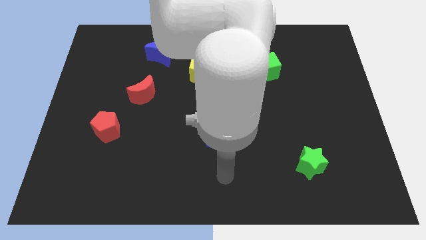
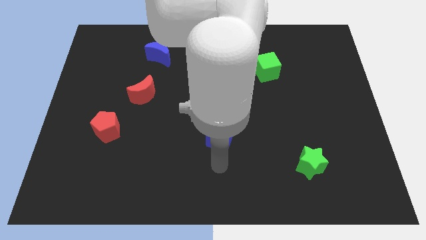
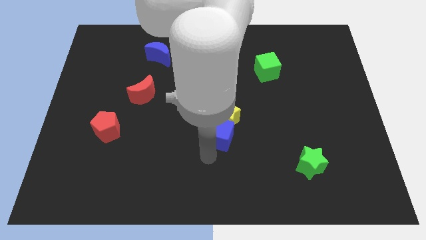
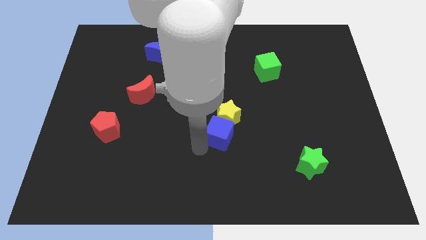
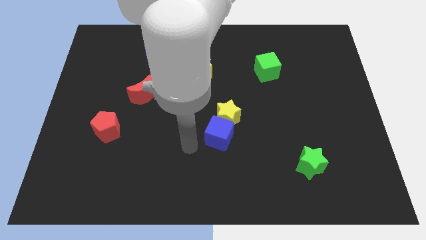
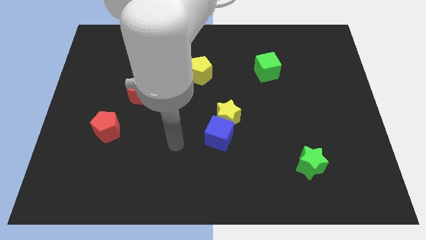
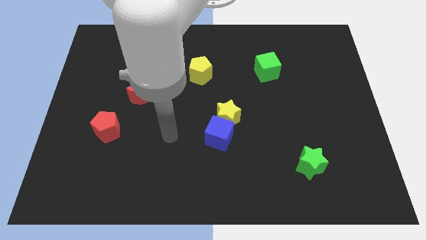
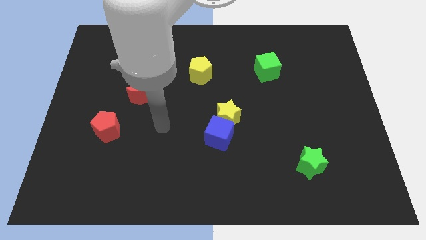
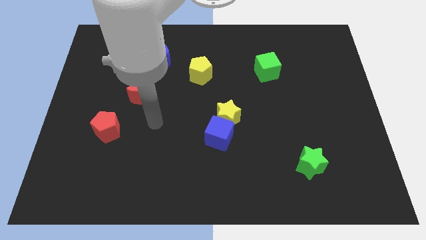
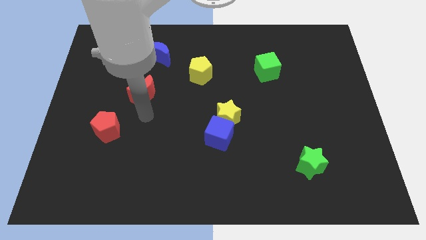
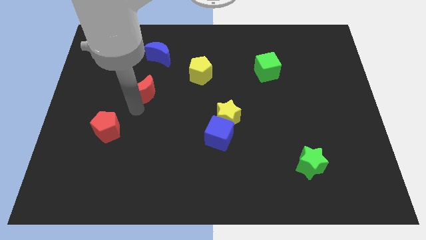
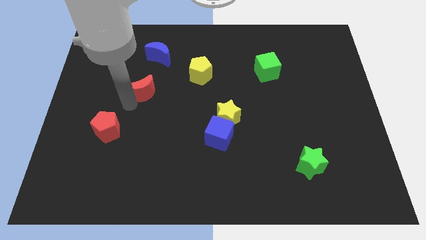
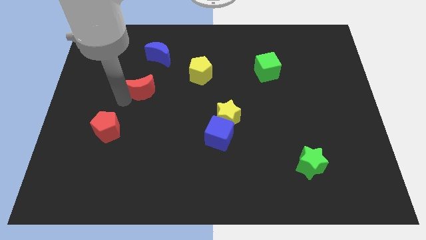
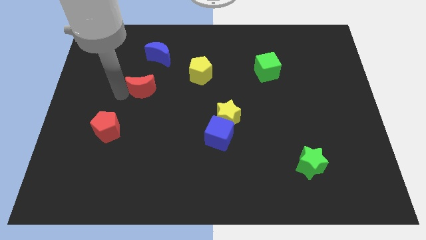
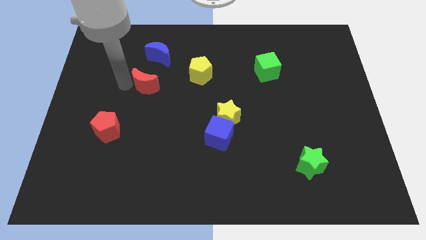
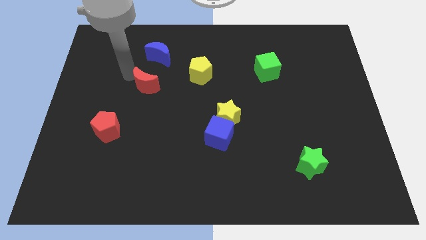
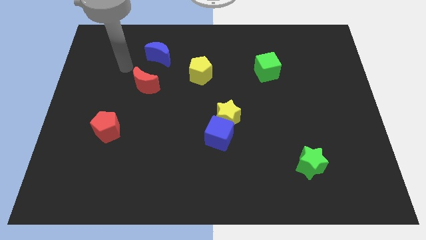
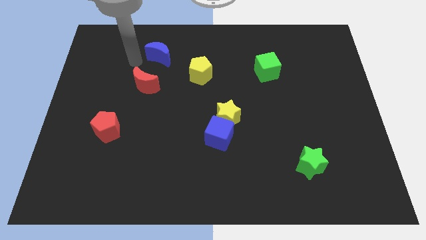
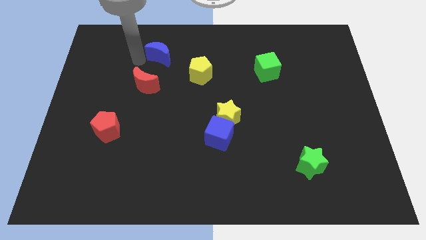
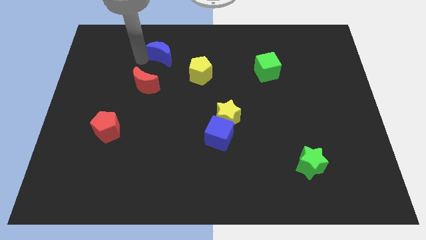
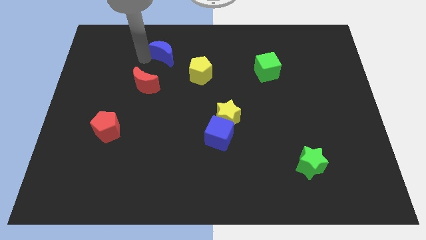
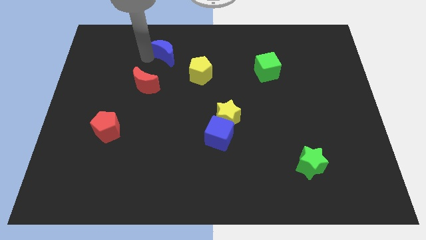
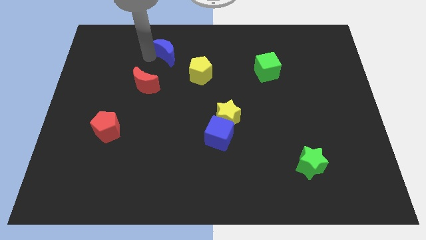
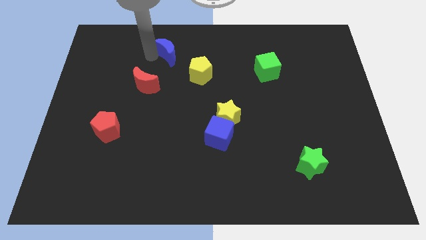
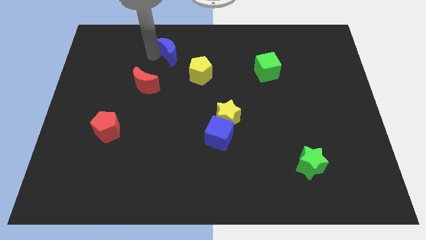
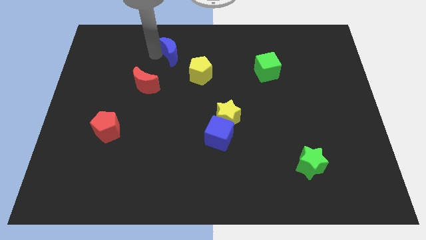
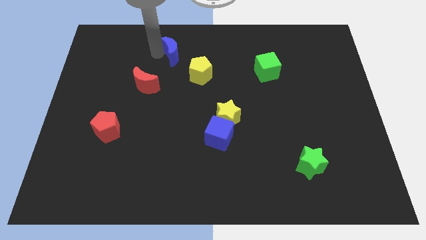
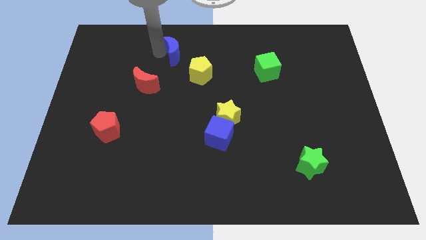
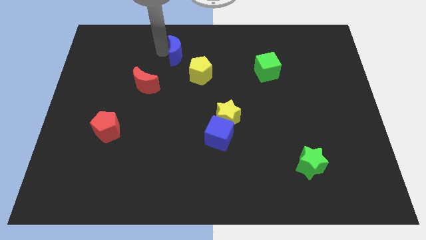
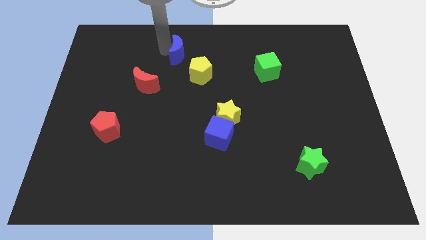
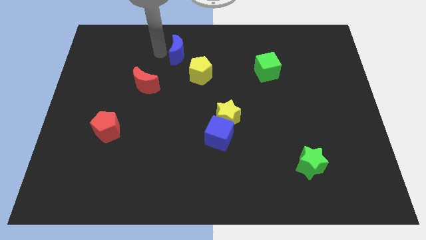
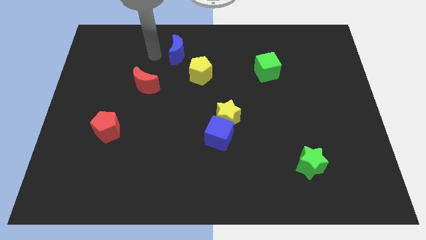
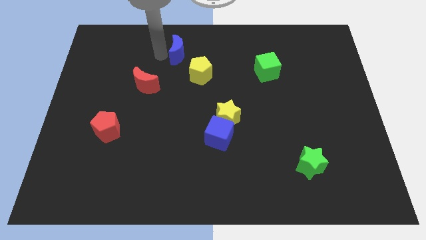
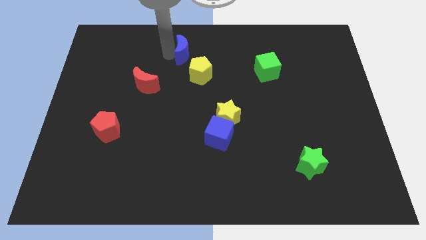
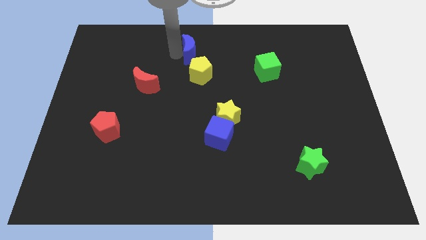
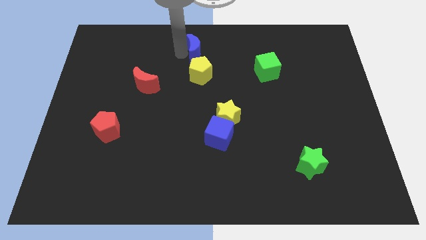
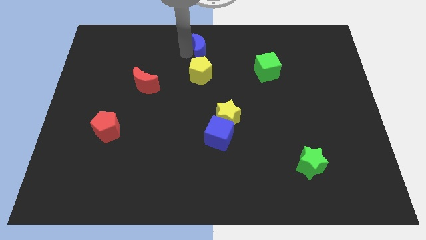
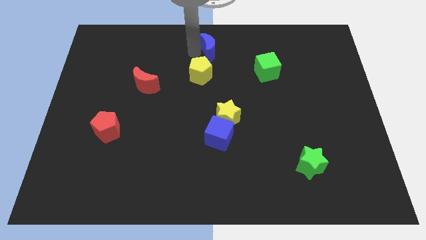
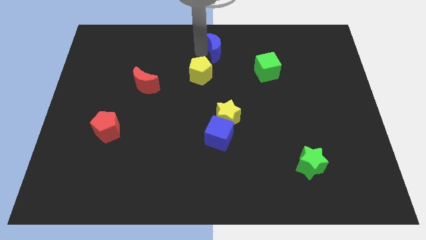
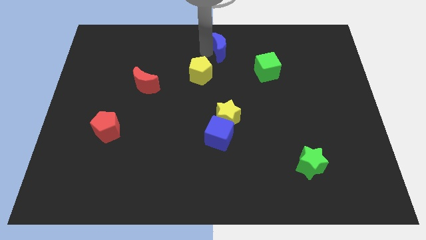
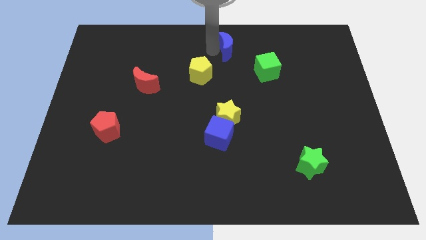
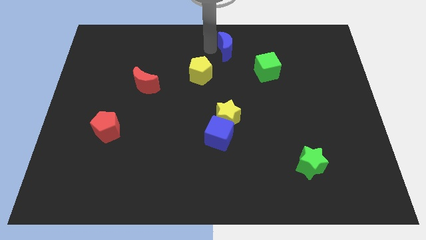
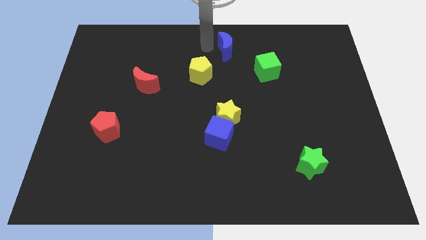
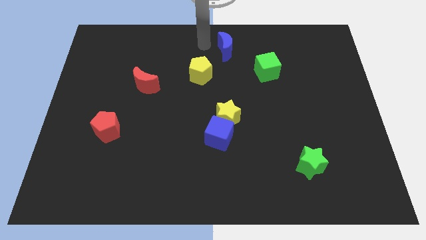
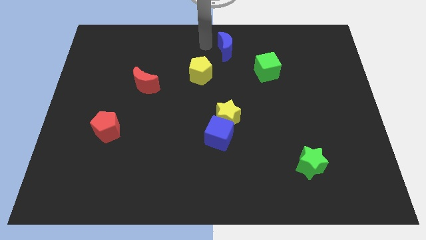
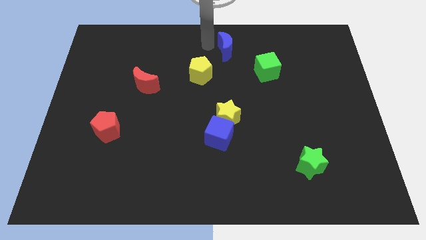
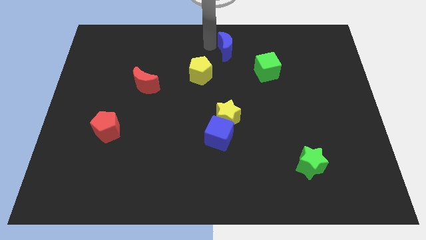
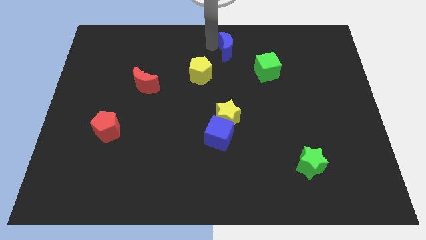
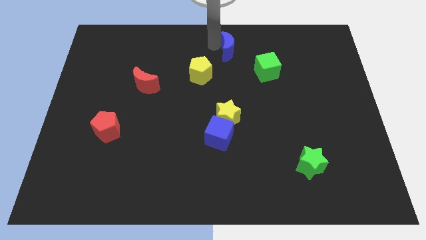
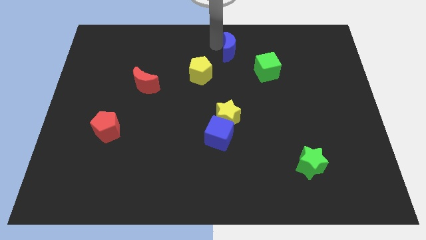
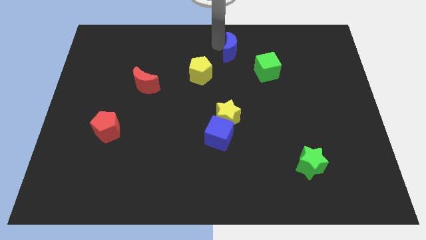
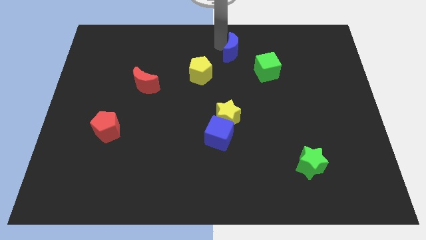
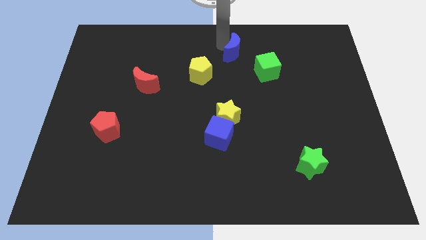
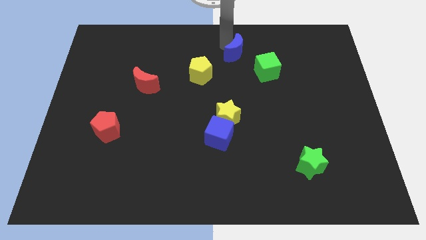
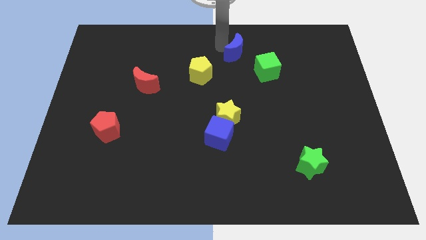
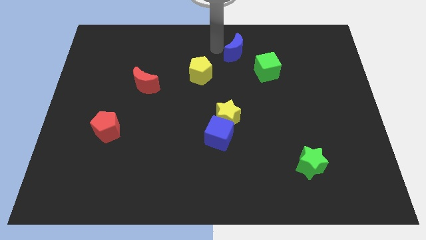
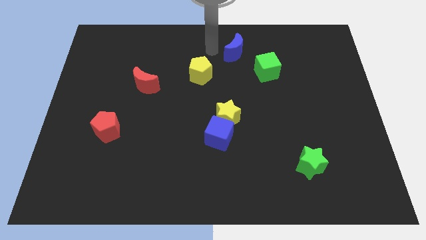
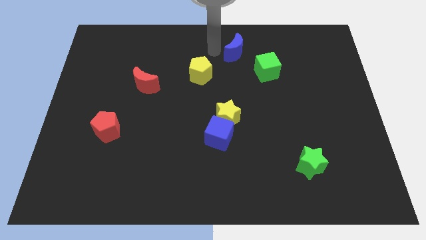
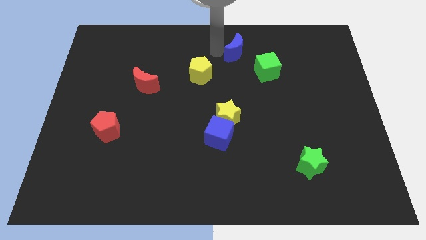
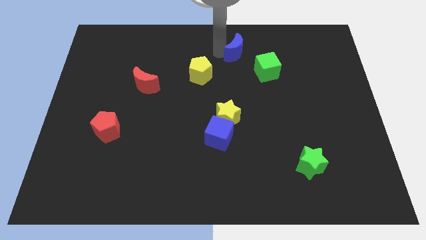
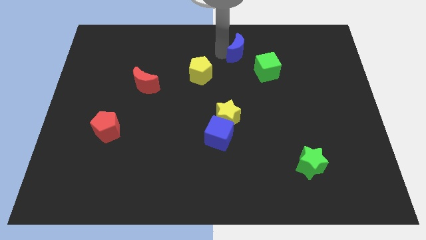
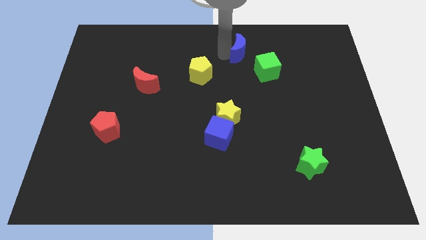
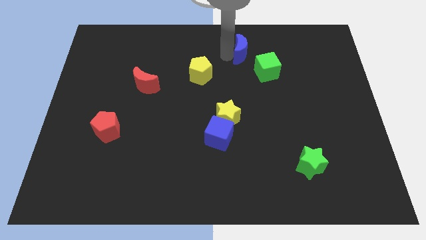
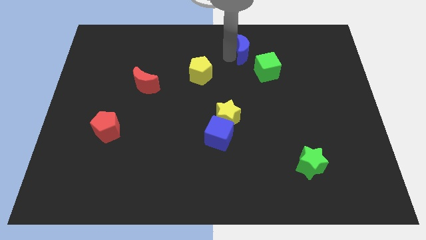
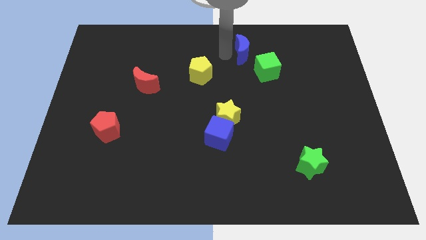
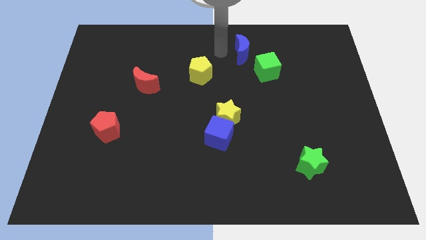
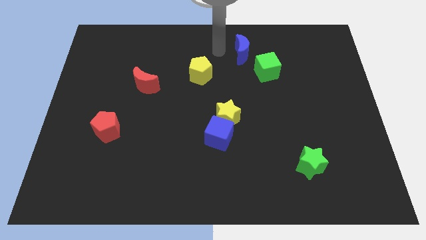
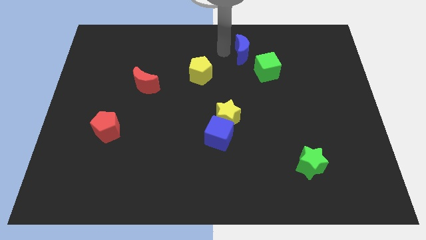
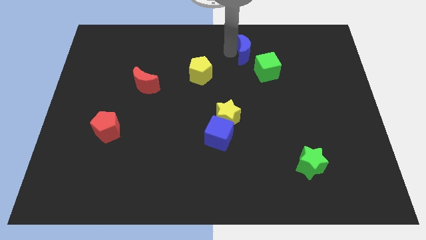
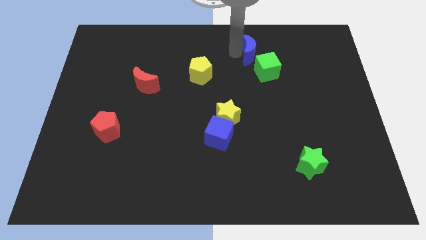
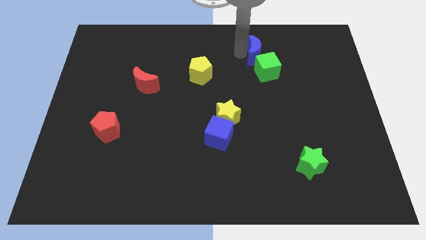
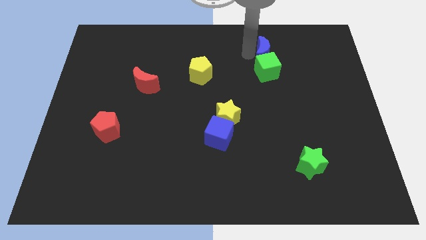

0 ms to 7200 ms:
move the blue moon diagonally up and to the right of the green cube
